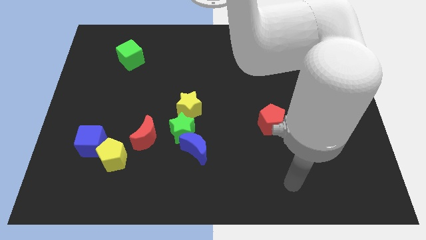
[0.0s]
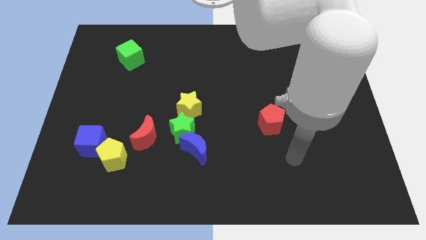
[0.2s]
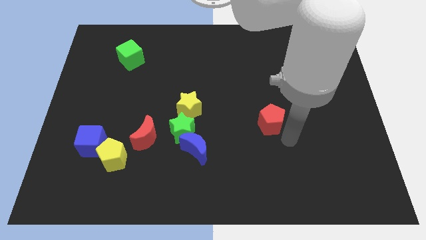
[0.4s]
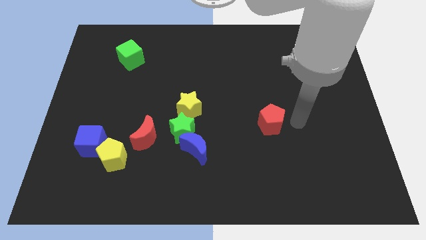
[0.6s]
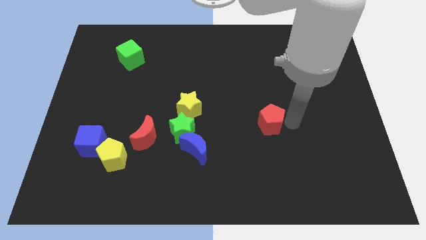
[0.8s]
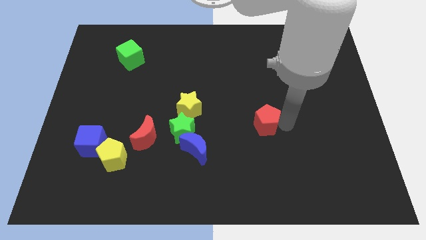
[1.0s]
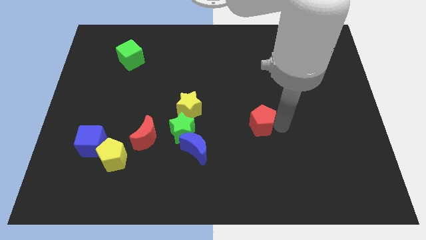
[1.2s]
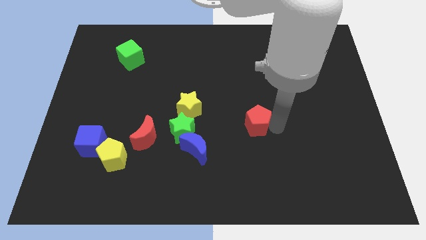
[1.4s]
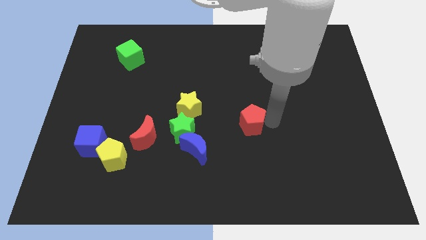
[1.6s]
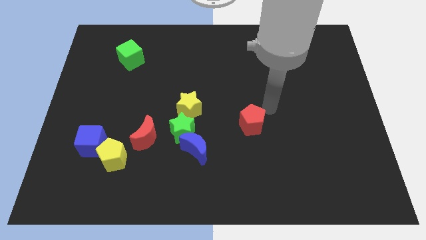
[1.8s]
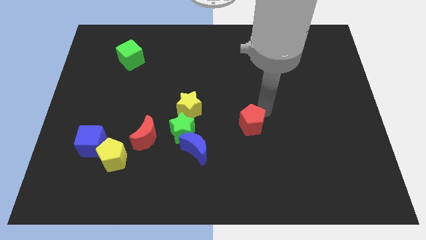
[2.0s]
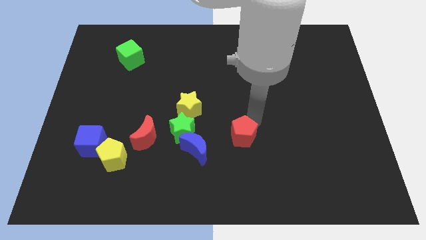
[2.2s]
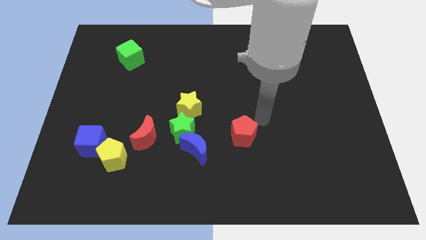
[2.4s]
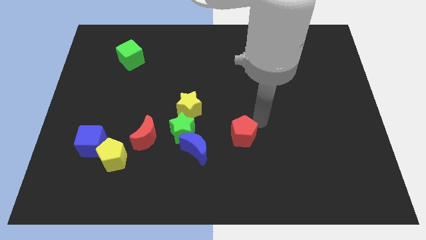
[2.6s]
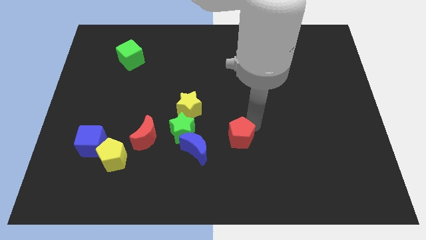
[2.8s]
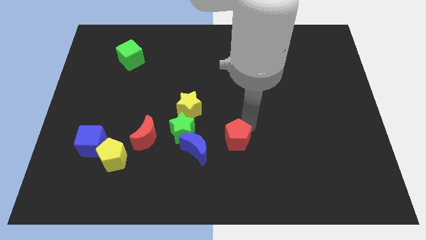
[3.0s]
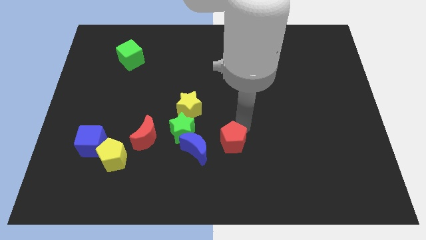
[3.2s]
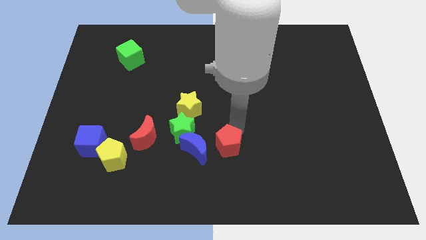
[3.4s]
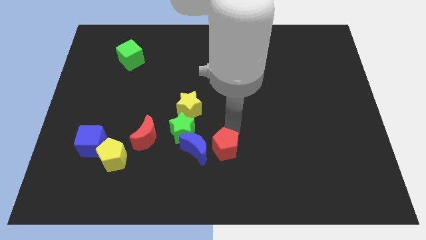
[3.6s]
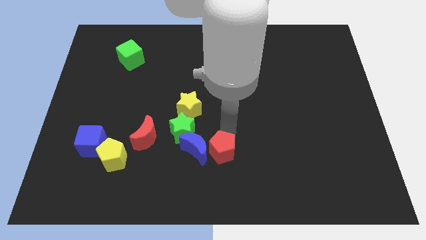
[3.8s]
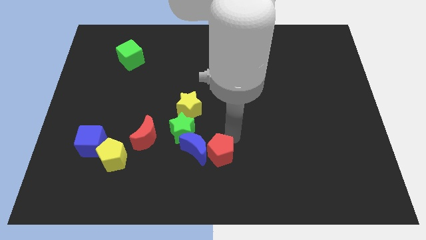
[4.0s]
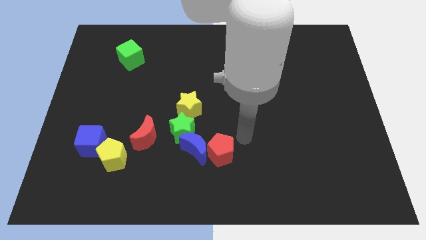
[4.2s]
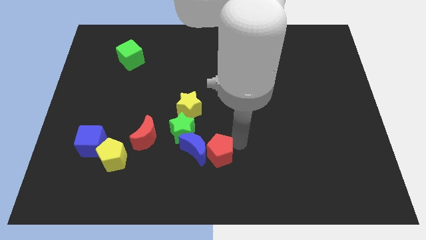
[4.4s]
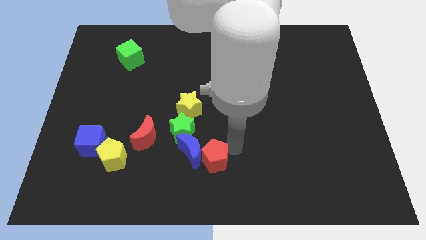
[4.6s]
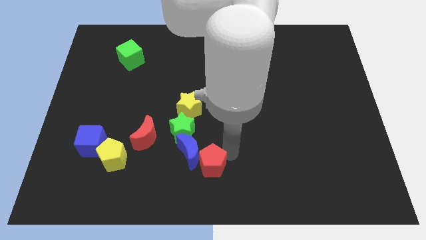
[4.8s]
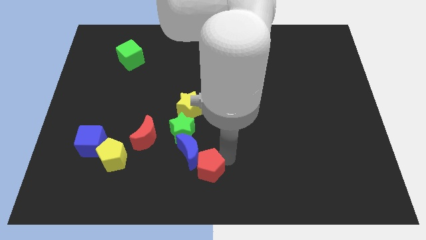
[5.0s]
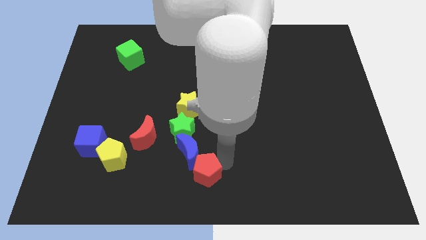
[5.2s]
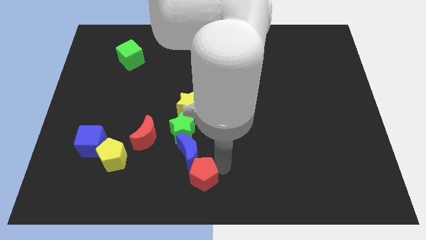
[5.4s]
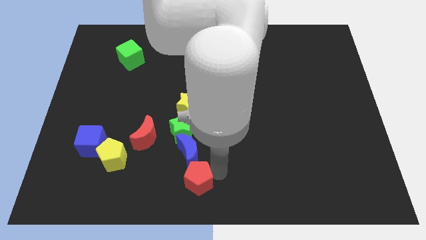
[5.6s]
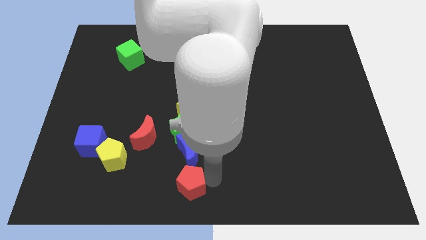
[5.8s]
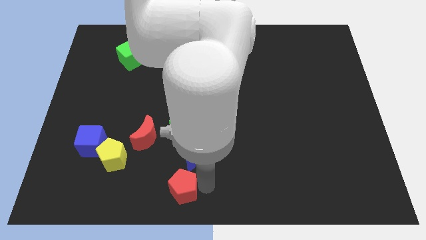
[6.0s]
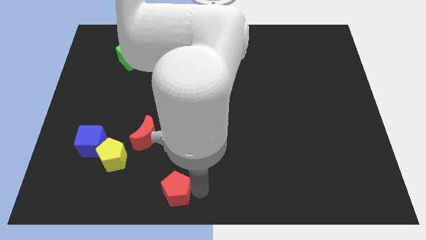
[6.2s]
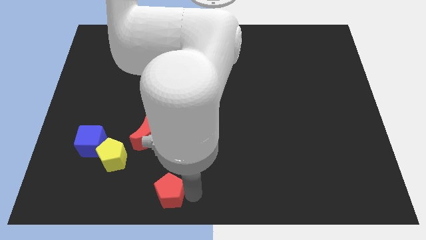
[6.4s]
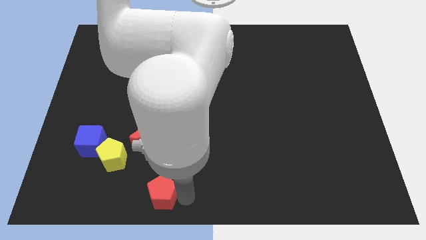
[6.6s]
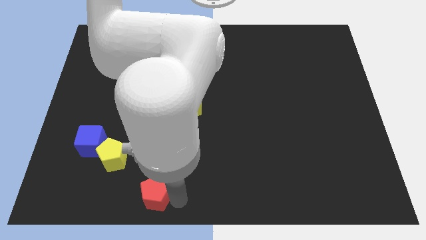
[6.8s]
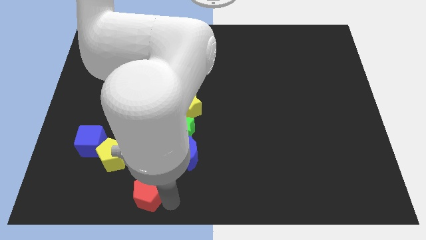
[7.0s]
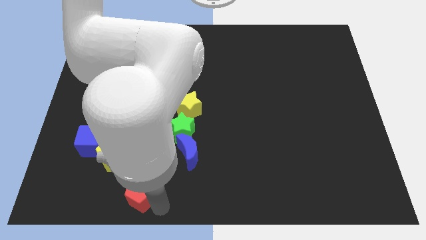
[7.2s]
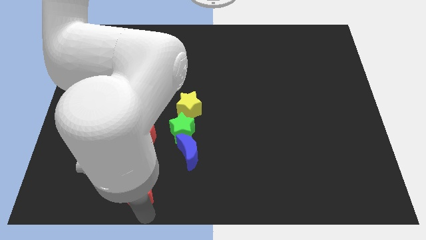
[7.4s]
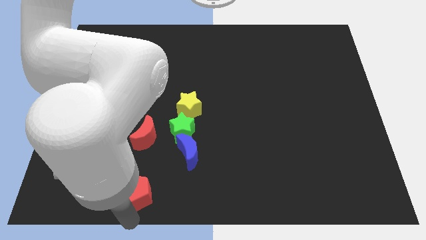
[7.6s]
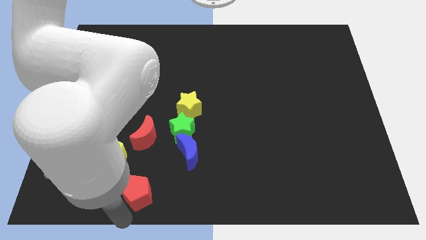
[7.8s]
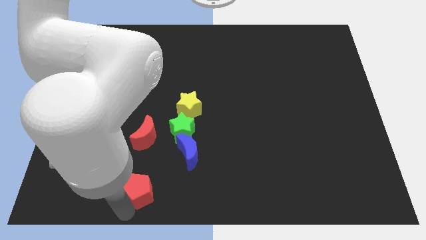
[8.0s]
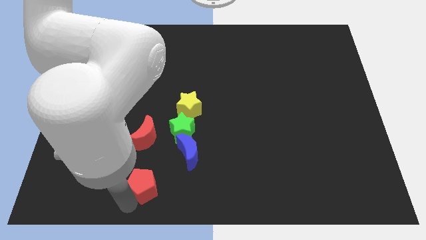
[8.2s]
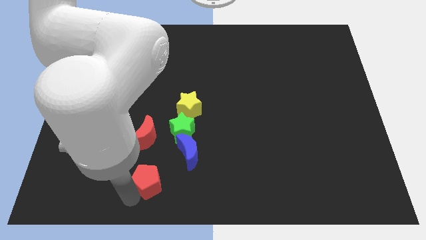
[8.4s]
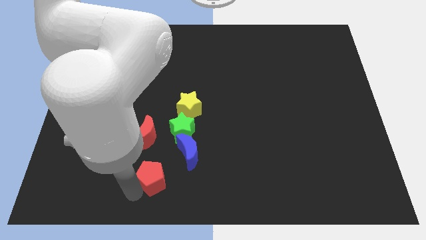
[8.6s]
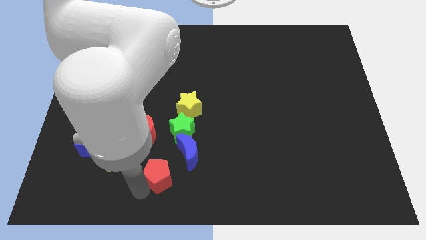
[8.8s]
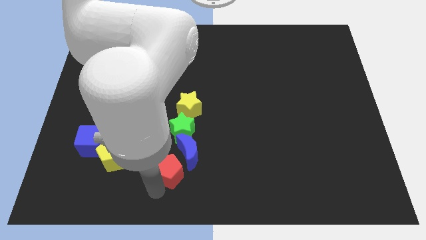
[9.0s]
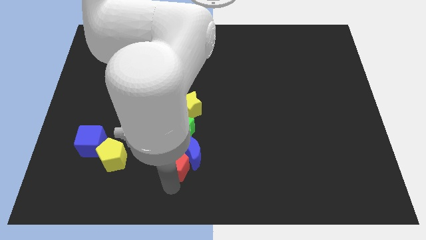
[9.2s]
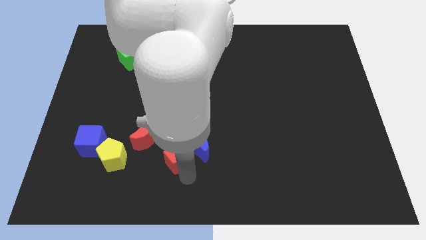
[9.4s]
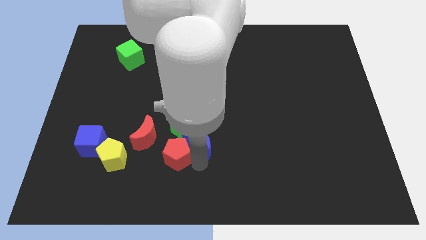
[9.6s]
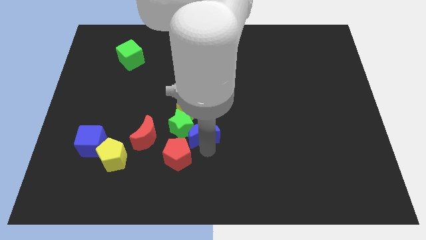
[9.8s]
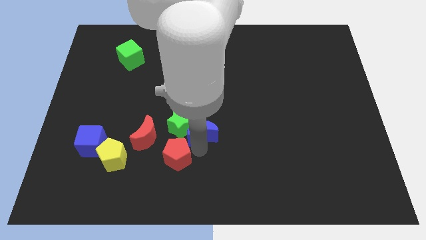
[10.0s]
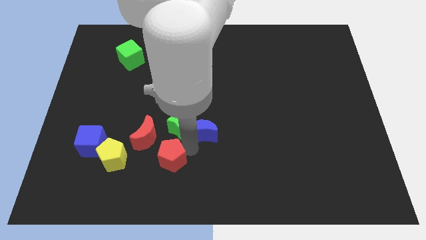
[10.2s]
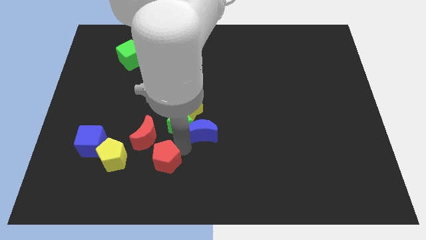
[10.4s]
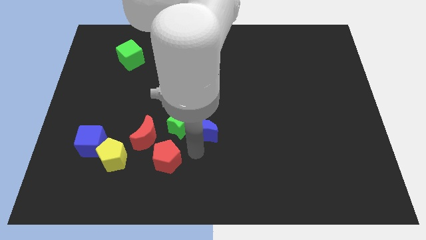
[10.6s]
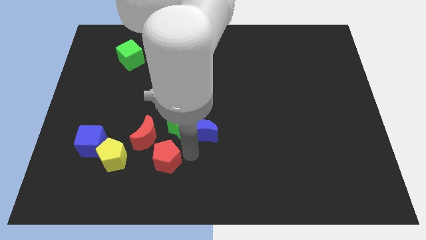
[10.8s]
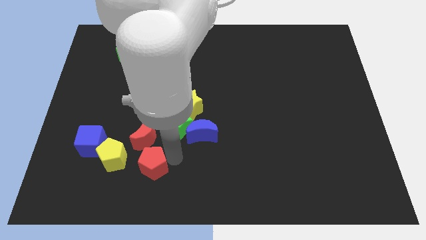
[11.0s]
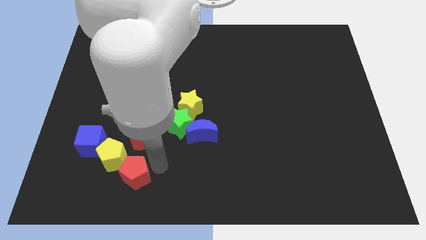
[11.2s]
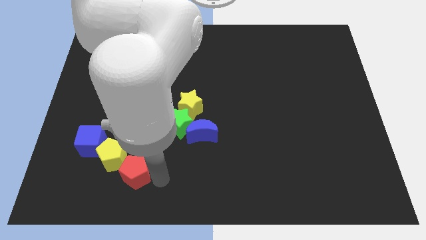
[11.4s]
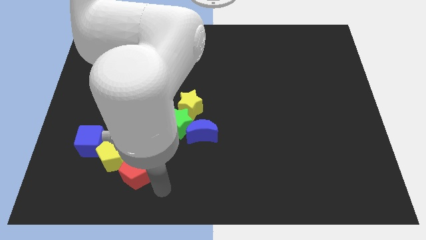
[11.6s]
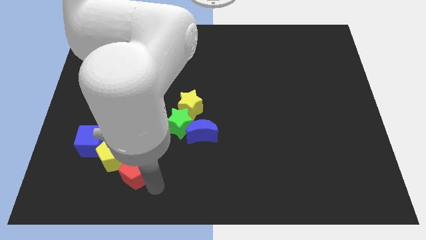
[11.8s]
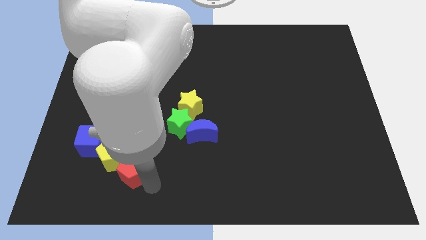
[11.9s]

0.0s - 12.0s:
put the red pentagon towards the yellow pentagon

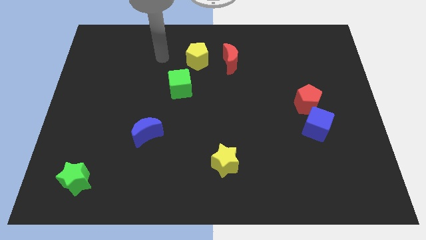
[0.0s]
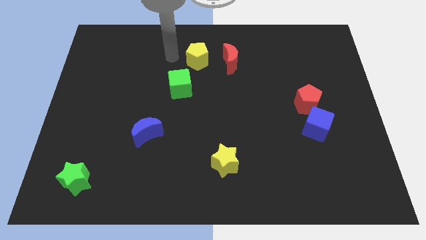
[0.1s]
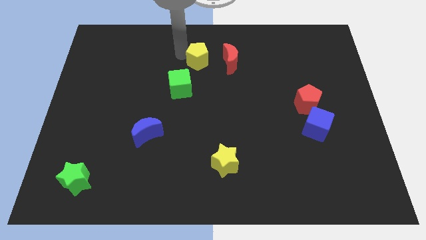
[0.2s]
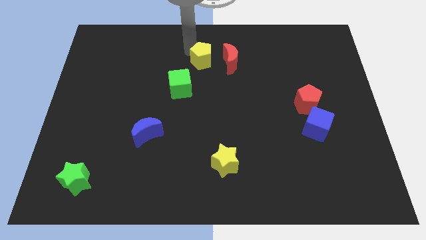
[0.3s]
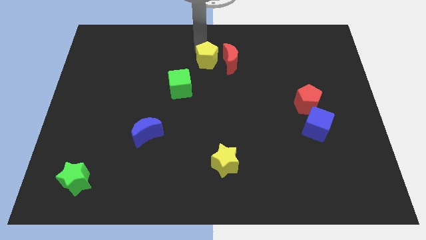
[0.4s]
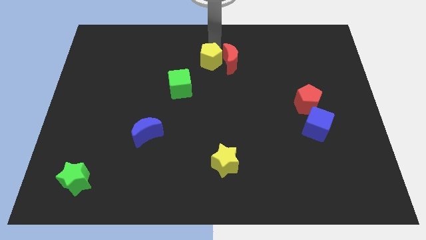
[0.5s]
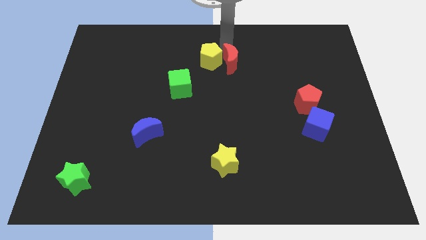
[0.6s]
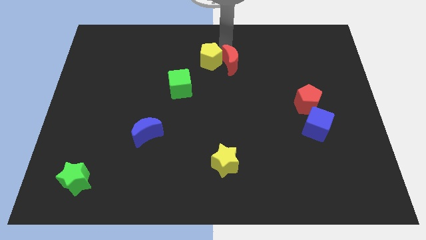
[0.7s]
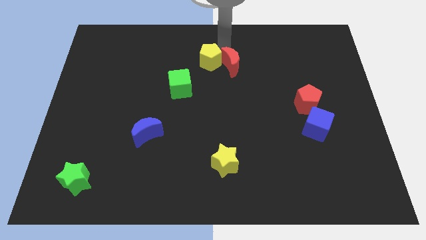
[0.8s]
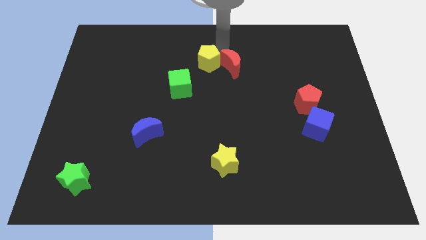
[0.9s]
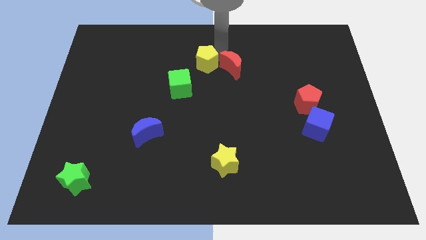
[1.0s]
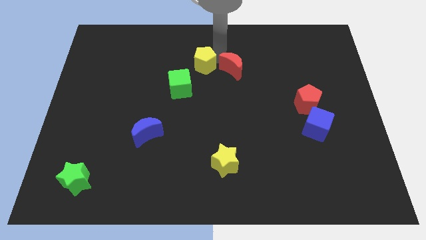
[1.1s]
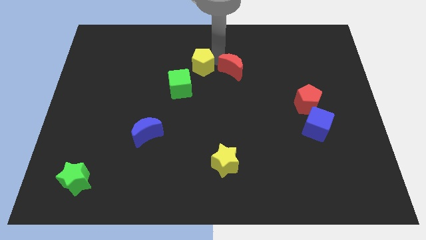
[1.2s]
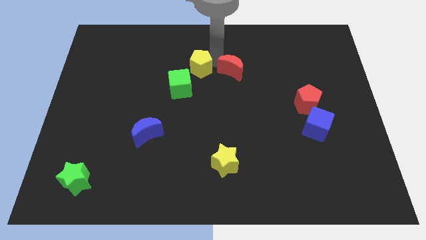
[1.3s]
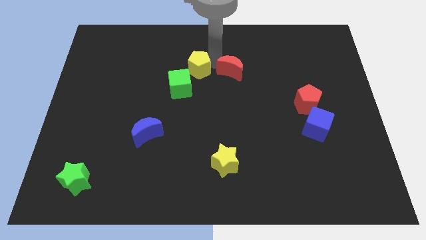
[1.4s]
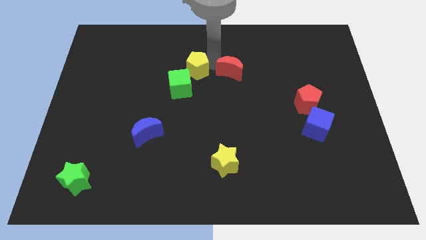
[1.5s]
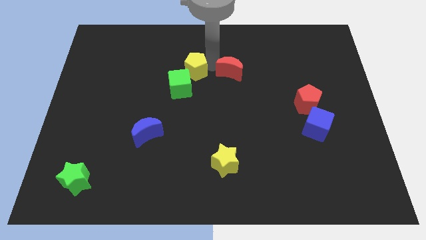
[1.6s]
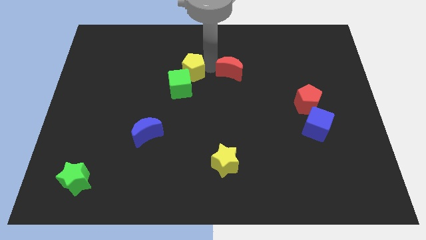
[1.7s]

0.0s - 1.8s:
move the yellow pentagon next to the green cube
